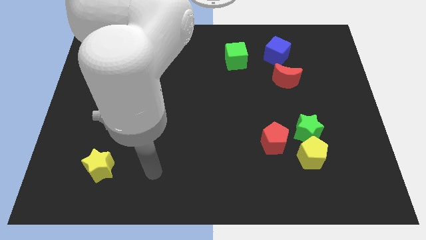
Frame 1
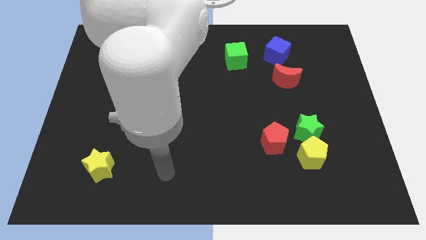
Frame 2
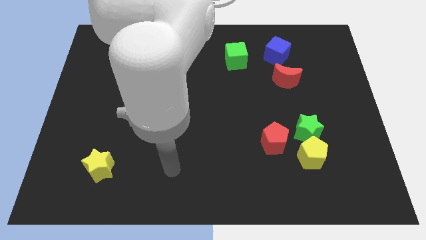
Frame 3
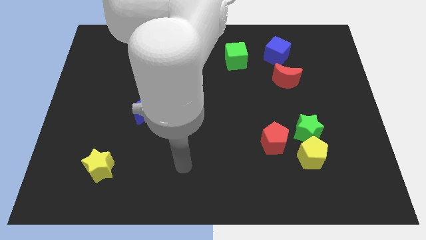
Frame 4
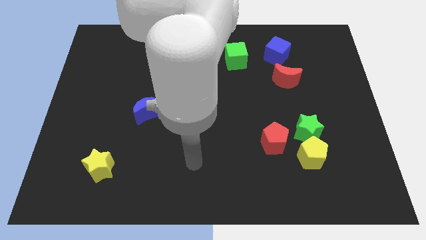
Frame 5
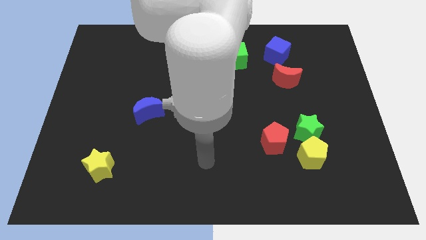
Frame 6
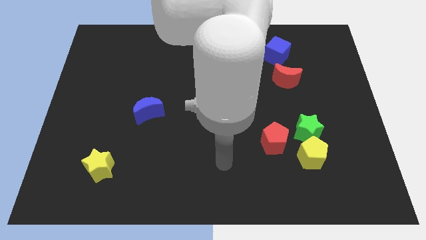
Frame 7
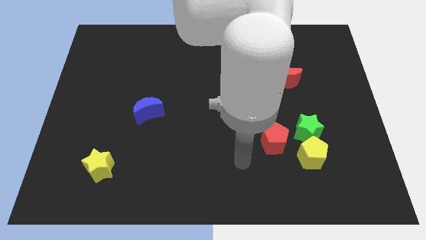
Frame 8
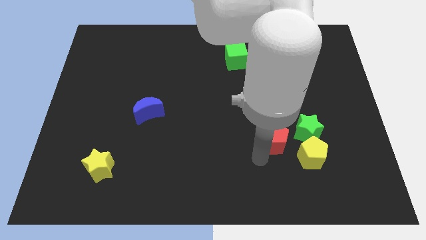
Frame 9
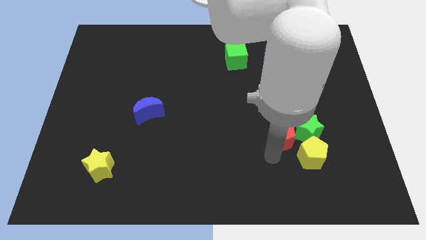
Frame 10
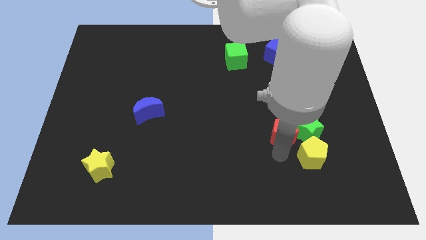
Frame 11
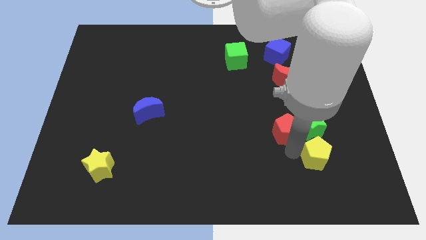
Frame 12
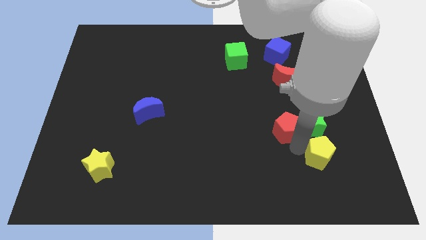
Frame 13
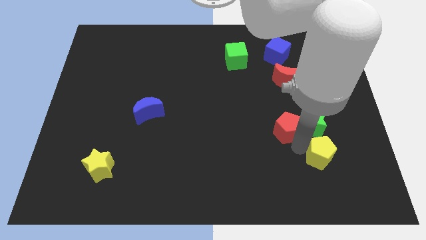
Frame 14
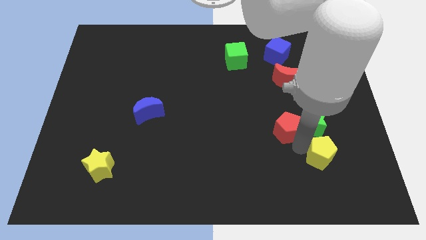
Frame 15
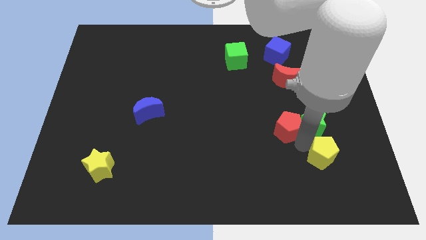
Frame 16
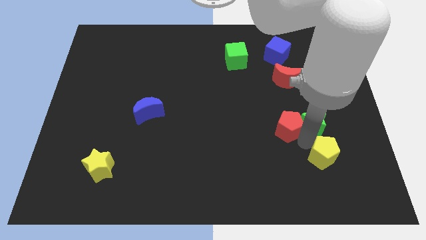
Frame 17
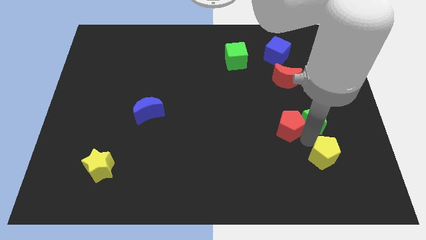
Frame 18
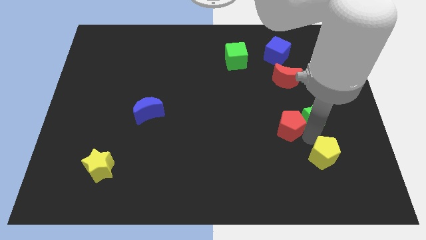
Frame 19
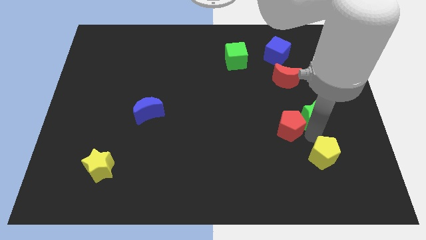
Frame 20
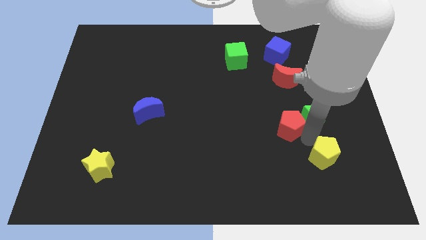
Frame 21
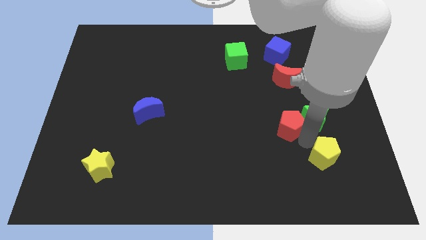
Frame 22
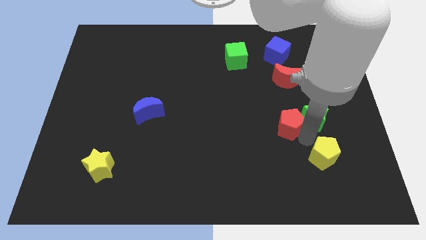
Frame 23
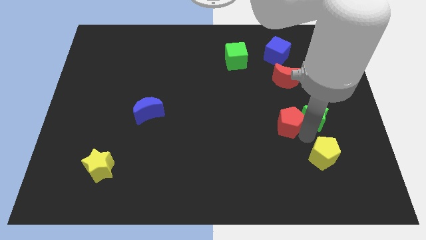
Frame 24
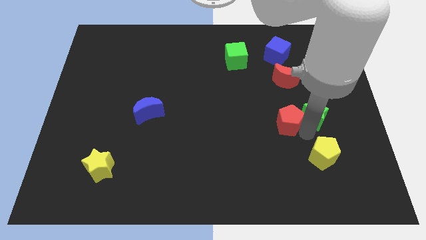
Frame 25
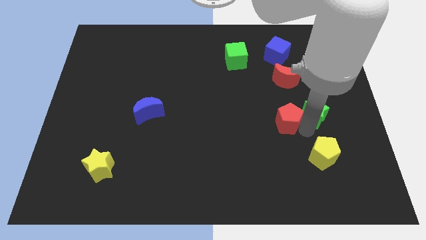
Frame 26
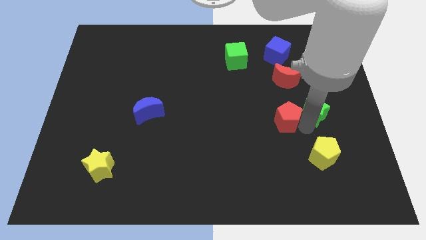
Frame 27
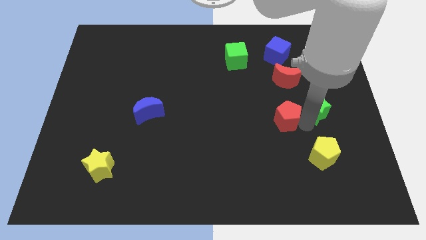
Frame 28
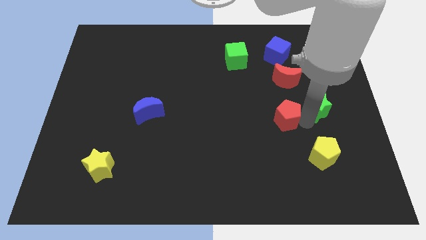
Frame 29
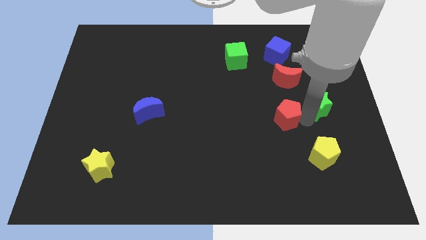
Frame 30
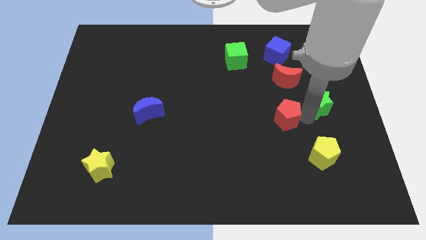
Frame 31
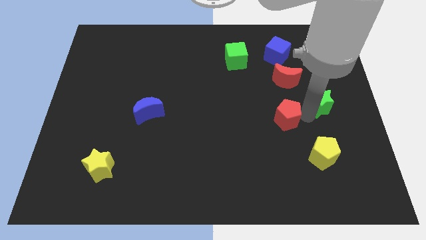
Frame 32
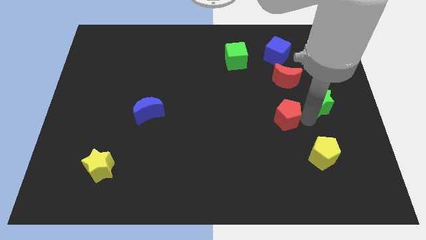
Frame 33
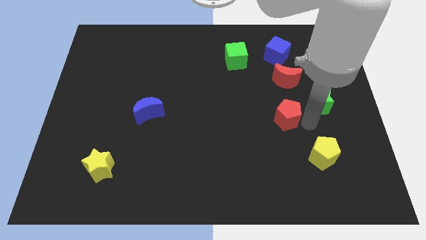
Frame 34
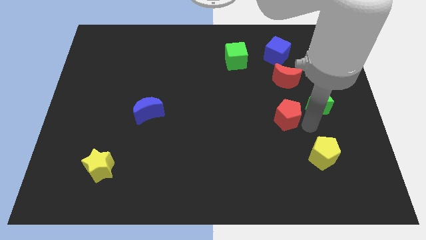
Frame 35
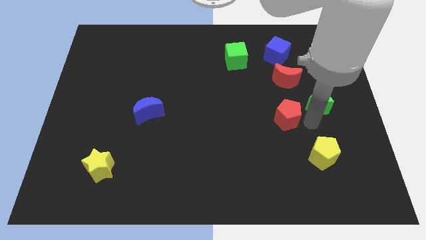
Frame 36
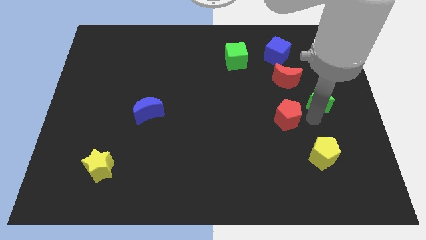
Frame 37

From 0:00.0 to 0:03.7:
separate the green star from the yellow pentagon and red pentagon

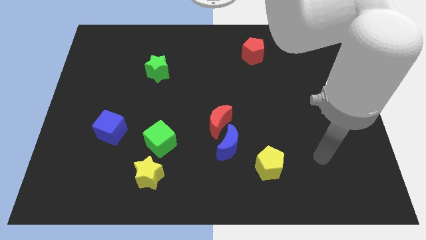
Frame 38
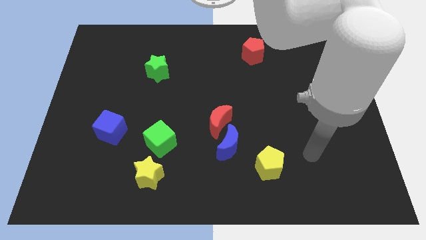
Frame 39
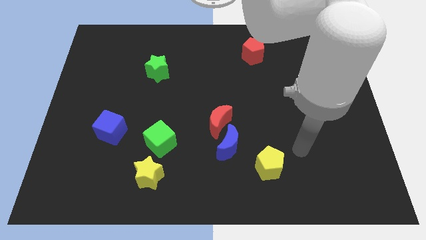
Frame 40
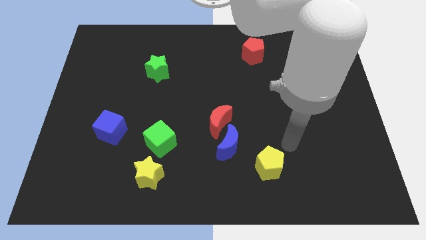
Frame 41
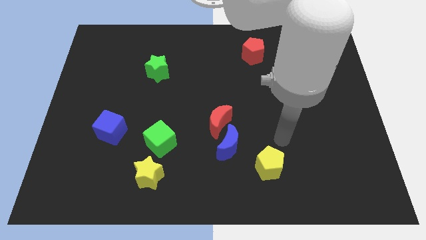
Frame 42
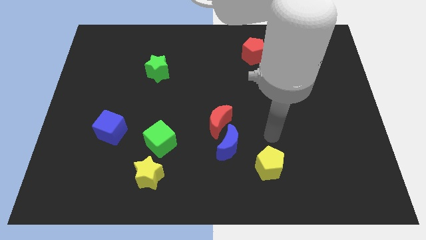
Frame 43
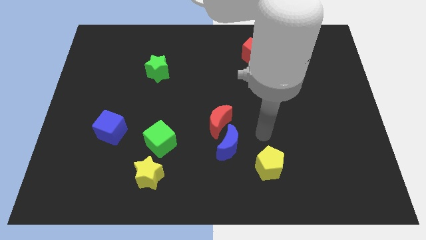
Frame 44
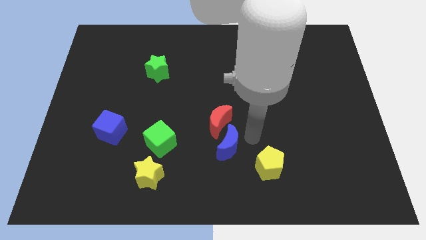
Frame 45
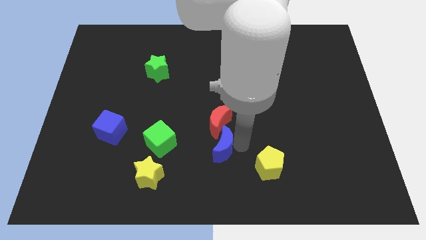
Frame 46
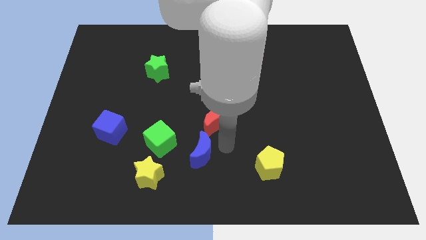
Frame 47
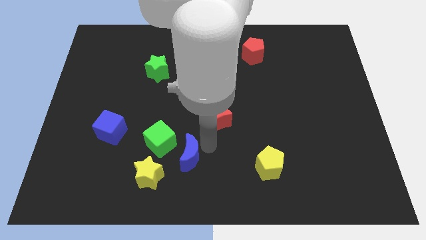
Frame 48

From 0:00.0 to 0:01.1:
pull the red moon apart from the blue moon

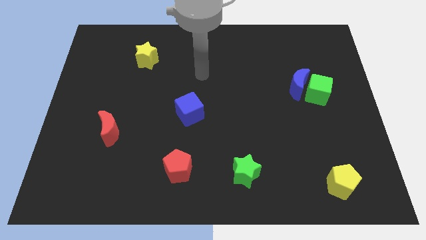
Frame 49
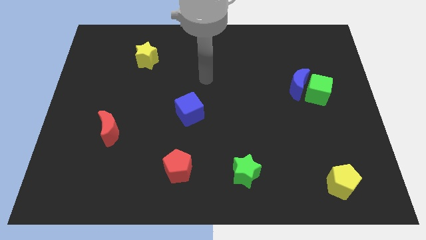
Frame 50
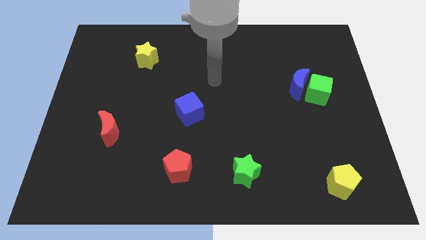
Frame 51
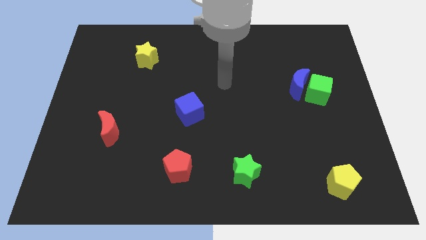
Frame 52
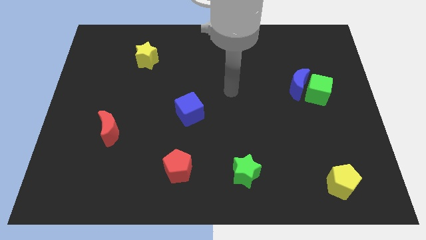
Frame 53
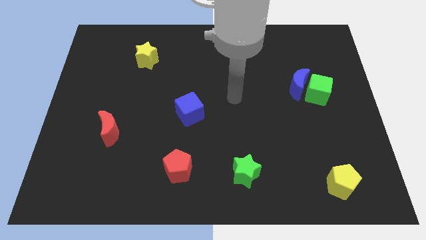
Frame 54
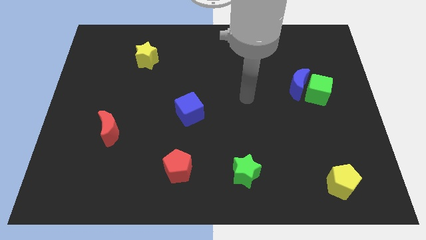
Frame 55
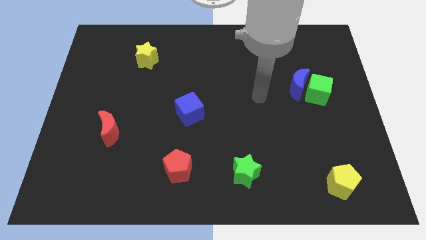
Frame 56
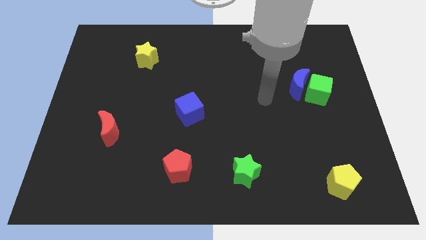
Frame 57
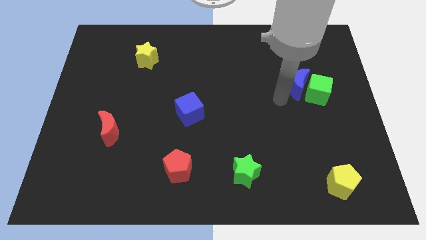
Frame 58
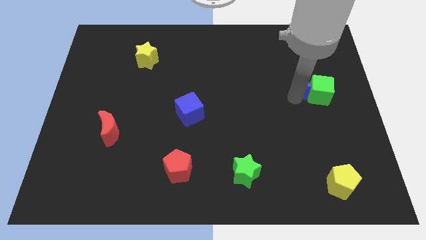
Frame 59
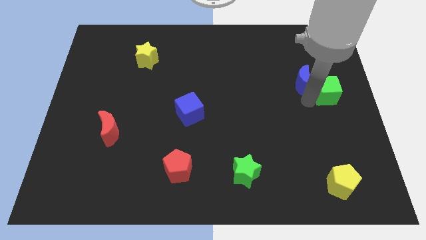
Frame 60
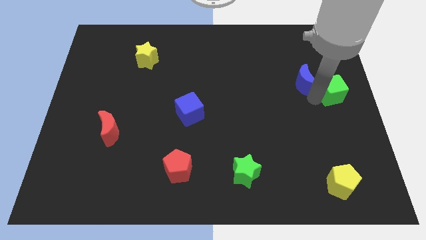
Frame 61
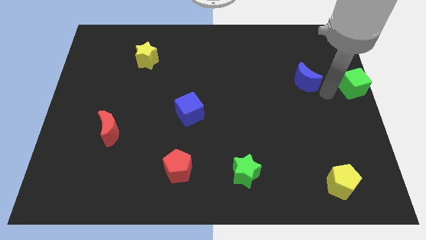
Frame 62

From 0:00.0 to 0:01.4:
separate the blue moon from the green cube

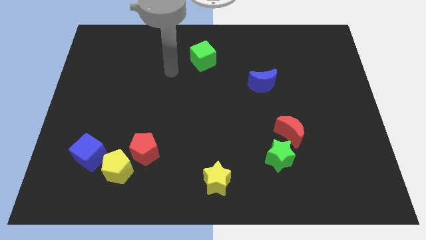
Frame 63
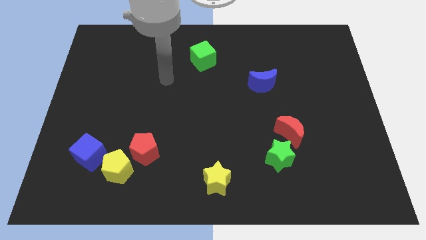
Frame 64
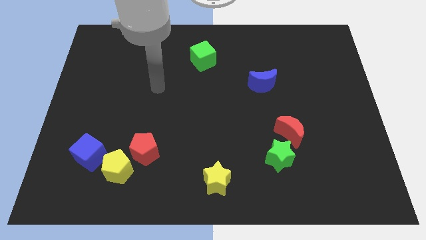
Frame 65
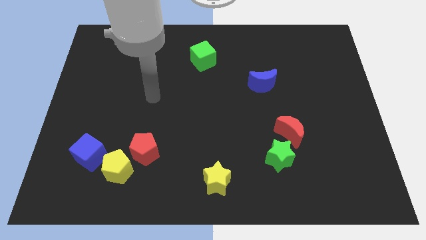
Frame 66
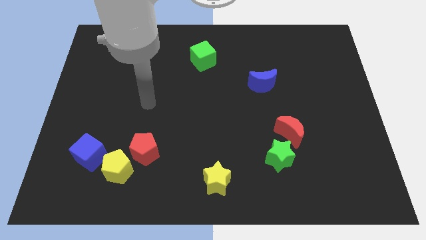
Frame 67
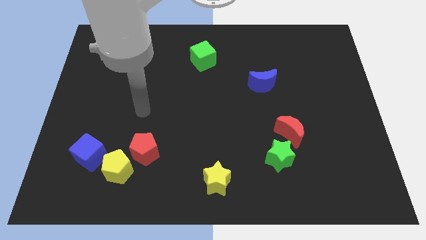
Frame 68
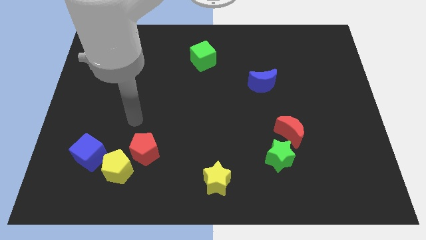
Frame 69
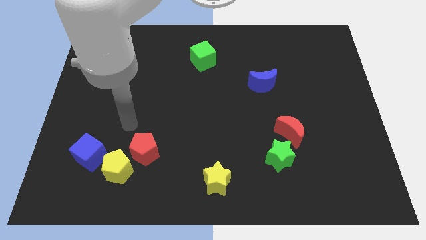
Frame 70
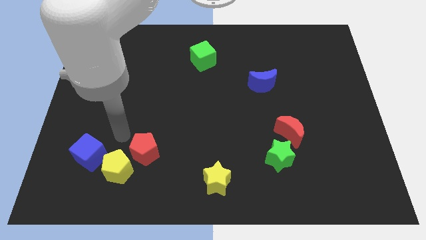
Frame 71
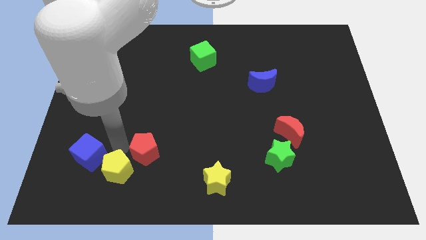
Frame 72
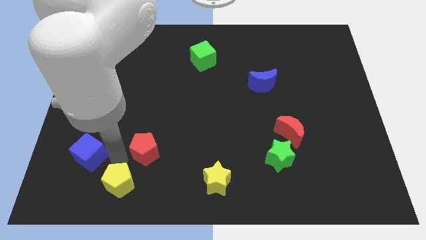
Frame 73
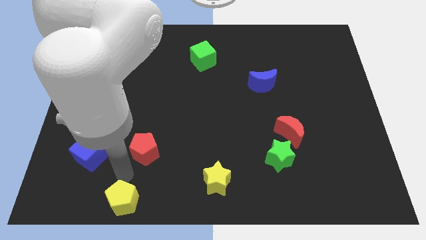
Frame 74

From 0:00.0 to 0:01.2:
pull the red pentagon apart from the yellow pentagon

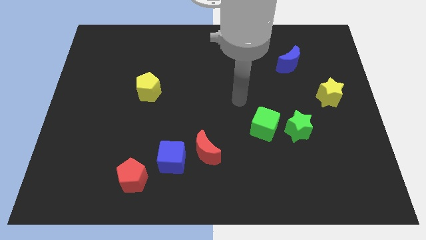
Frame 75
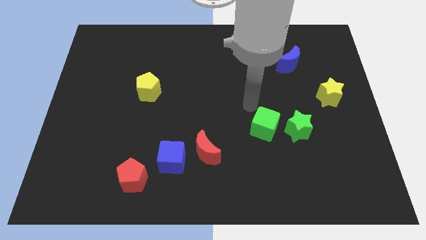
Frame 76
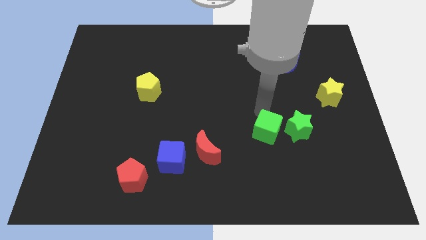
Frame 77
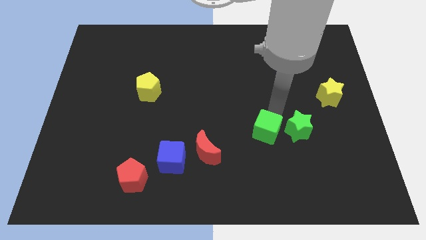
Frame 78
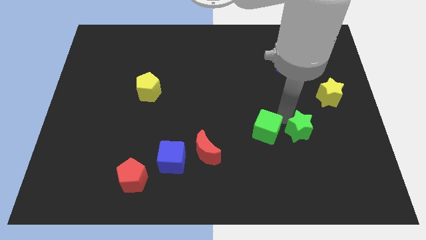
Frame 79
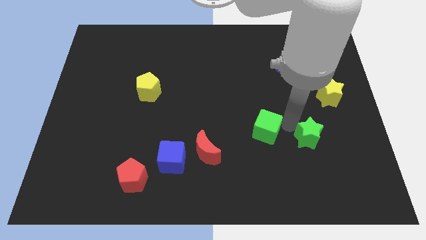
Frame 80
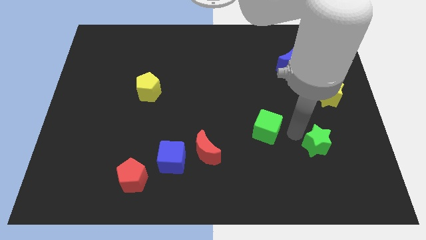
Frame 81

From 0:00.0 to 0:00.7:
pull the green cube apart from the green star

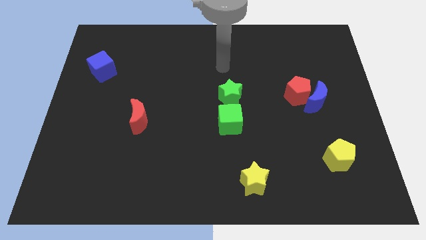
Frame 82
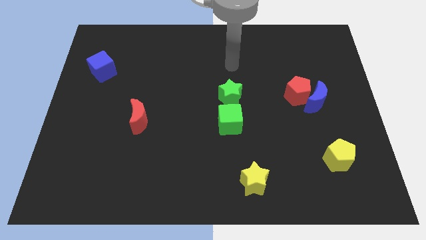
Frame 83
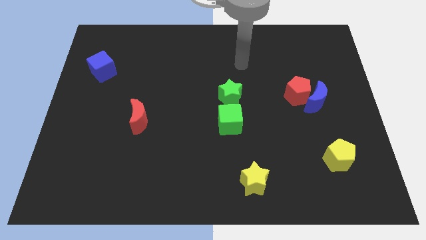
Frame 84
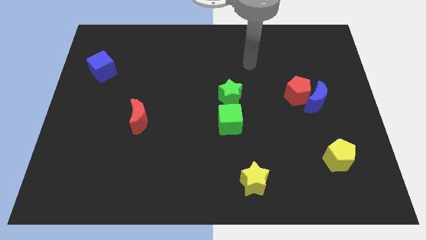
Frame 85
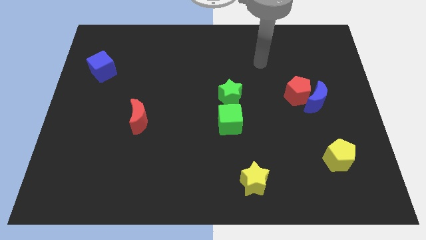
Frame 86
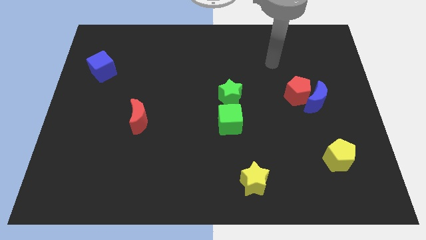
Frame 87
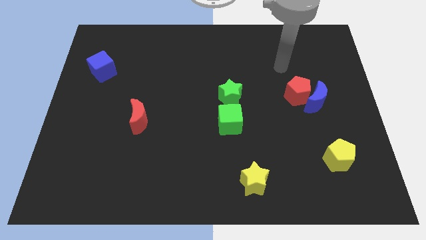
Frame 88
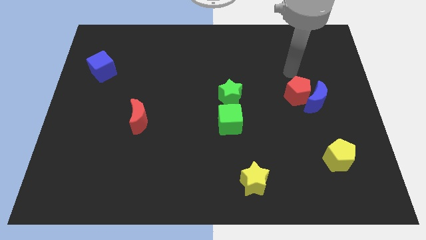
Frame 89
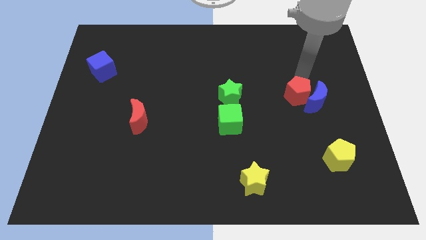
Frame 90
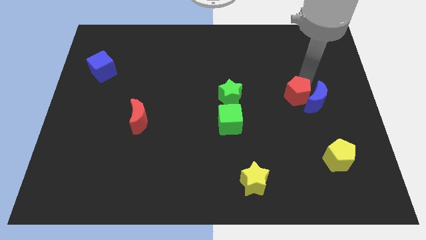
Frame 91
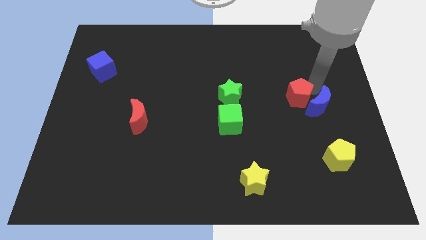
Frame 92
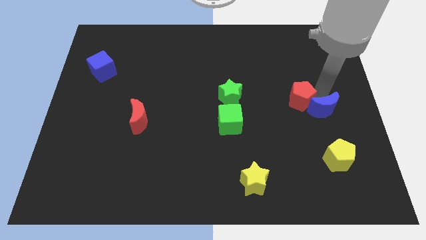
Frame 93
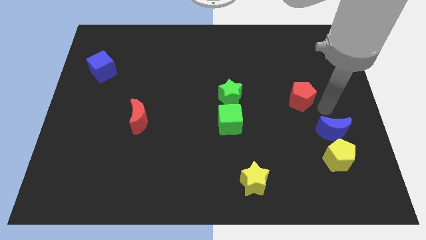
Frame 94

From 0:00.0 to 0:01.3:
move the red pentagon away from the blue moon
